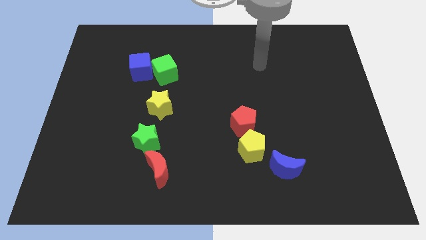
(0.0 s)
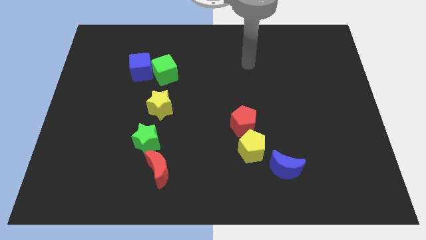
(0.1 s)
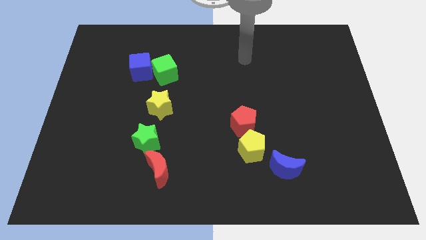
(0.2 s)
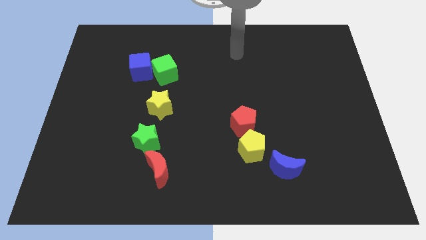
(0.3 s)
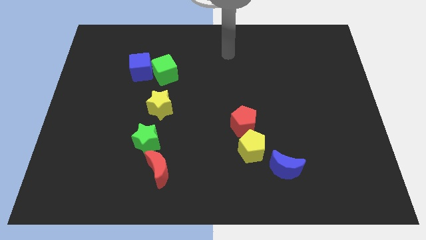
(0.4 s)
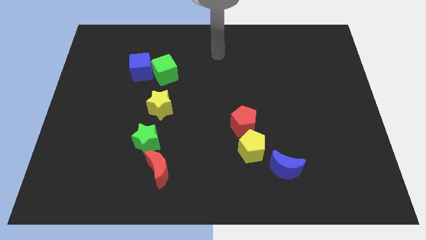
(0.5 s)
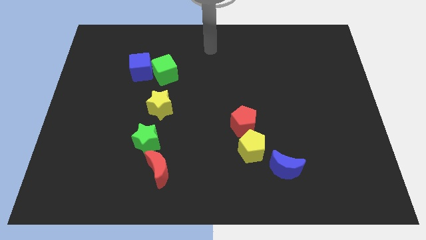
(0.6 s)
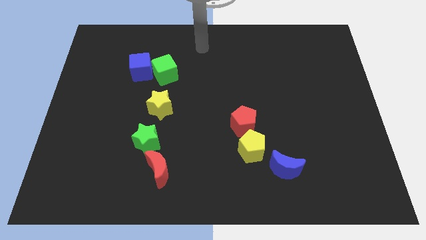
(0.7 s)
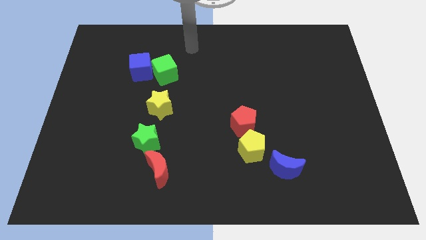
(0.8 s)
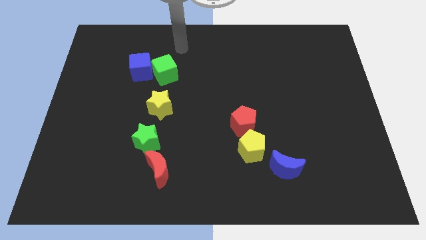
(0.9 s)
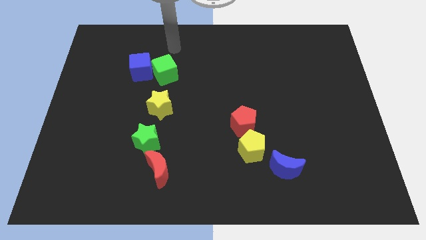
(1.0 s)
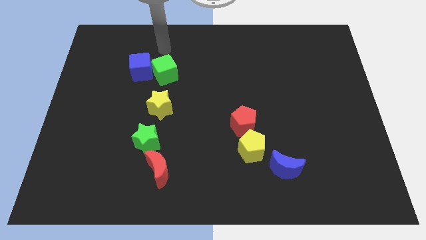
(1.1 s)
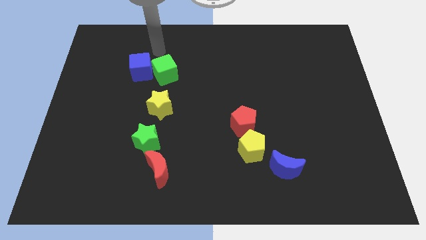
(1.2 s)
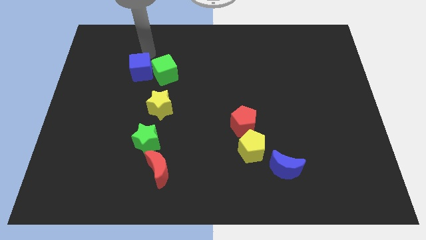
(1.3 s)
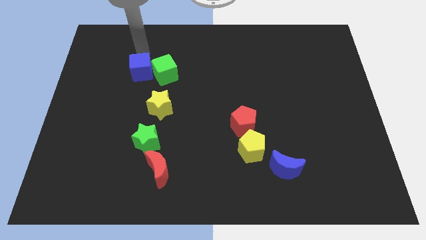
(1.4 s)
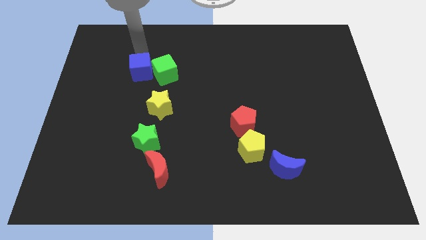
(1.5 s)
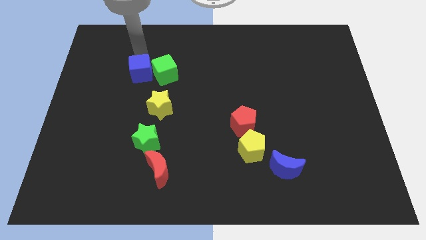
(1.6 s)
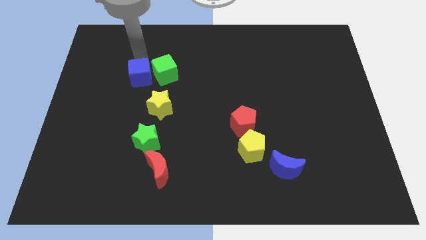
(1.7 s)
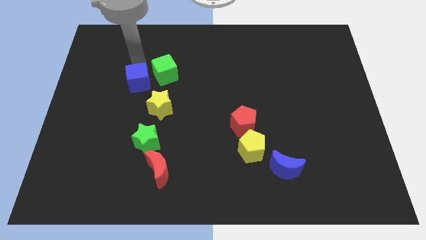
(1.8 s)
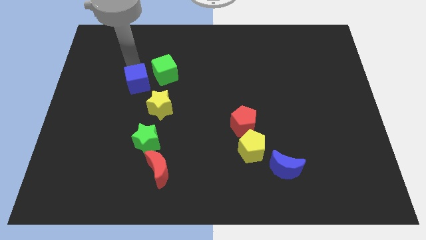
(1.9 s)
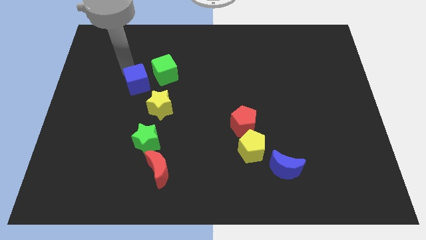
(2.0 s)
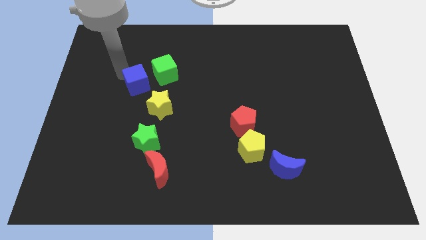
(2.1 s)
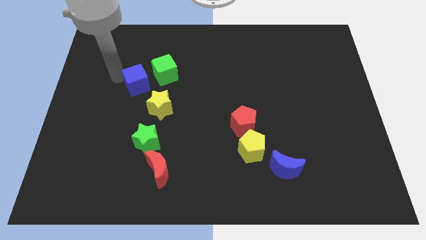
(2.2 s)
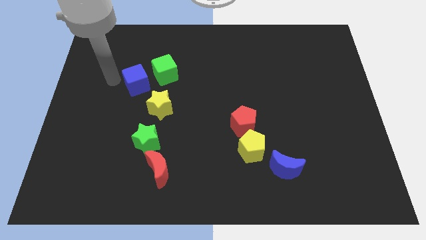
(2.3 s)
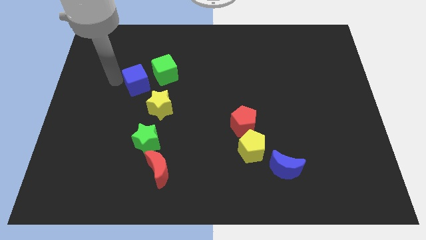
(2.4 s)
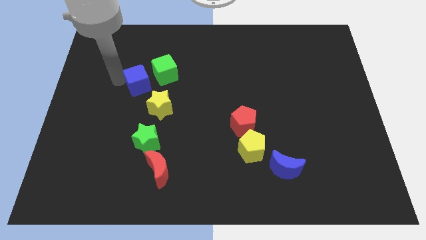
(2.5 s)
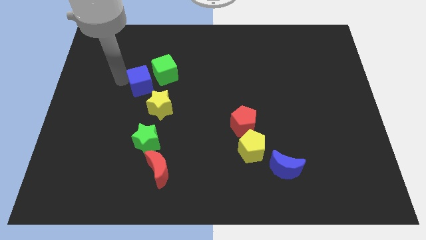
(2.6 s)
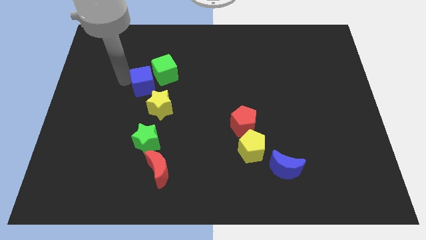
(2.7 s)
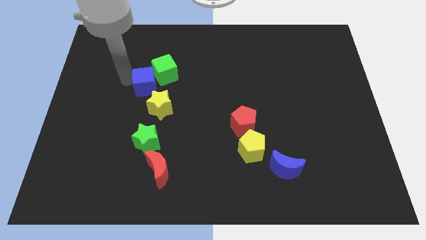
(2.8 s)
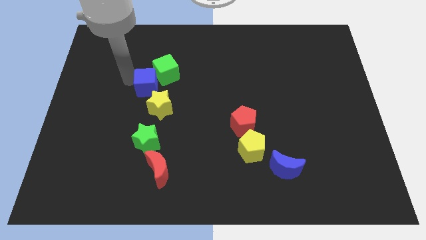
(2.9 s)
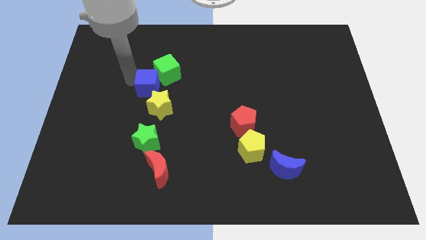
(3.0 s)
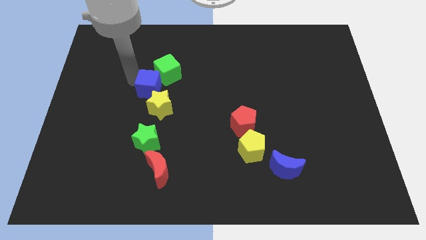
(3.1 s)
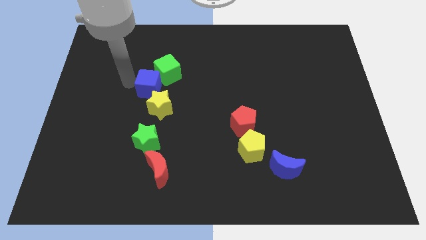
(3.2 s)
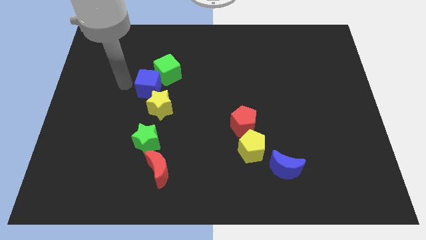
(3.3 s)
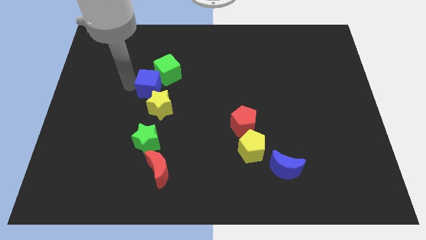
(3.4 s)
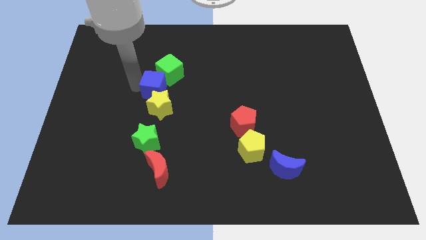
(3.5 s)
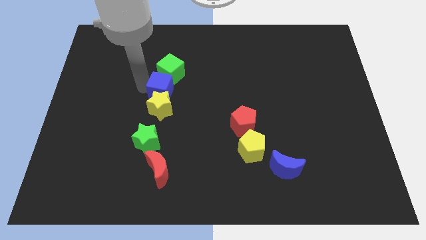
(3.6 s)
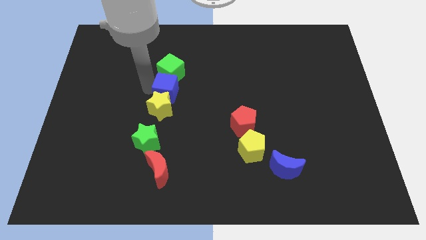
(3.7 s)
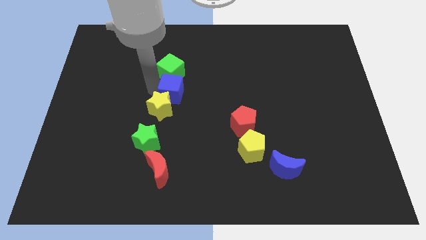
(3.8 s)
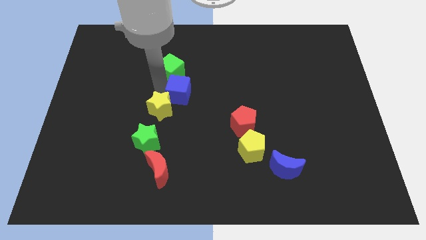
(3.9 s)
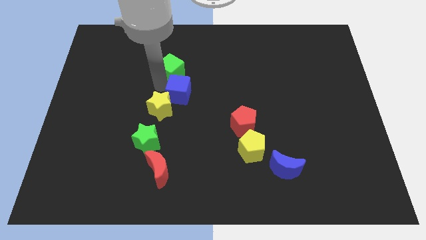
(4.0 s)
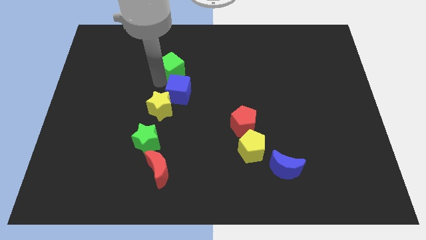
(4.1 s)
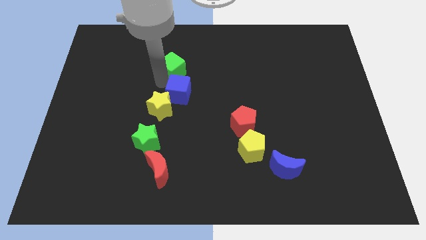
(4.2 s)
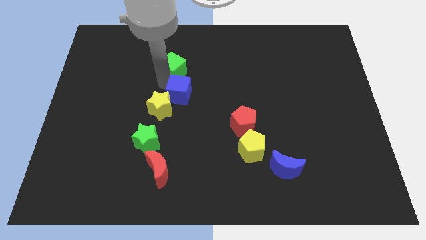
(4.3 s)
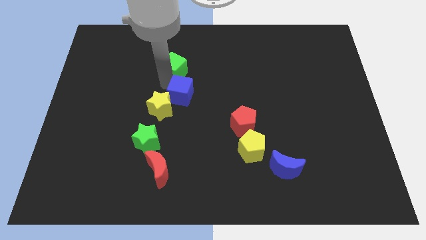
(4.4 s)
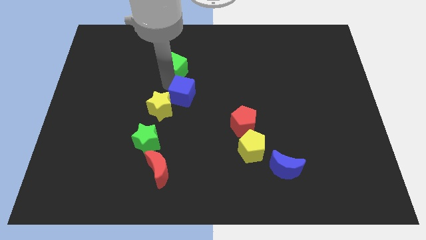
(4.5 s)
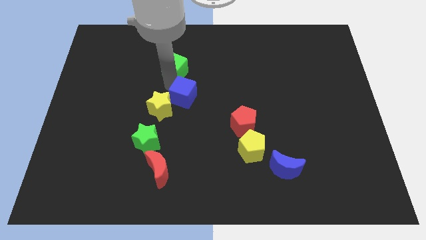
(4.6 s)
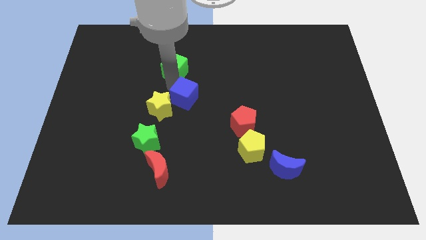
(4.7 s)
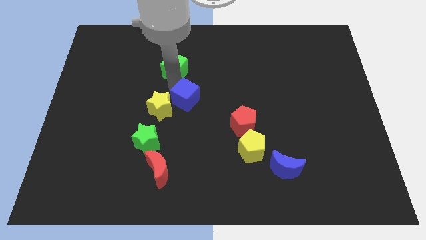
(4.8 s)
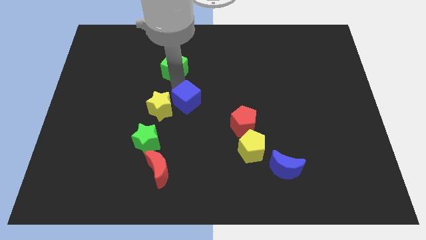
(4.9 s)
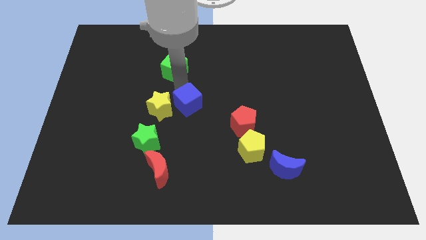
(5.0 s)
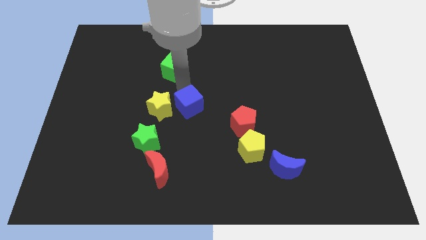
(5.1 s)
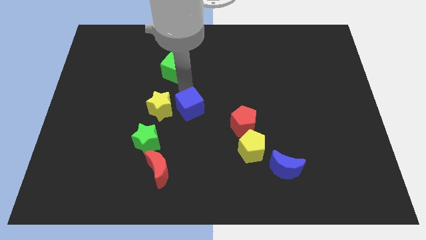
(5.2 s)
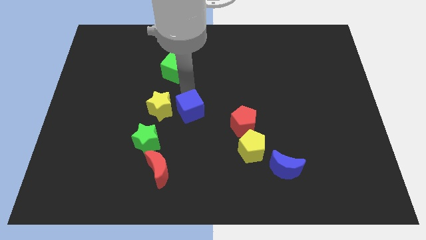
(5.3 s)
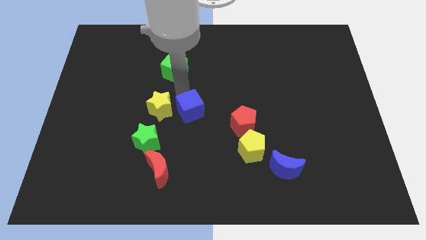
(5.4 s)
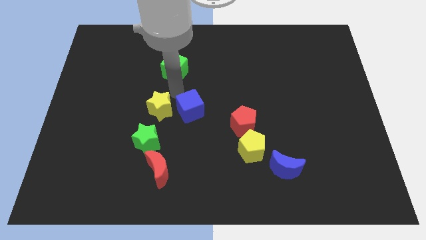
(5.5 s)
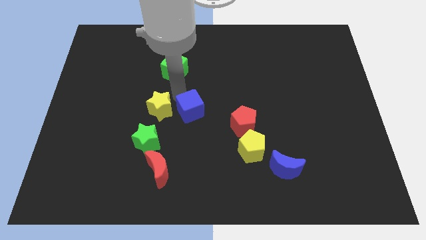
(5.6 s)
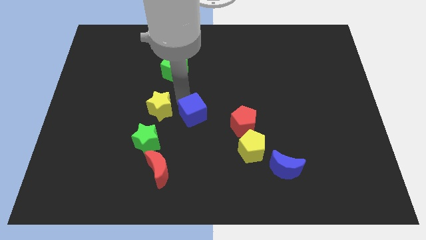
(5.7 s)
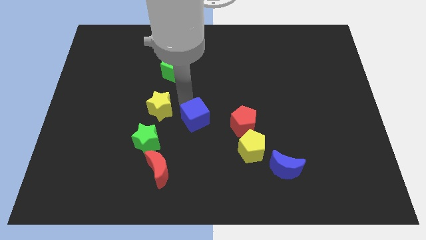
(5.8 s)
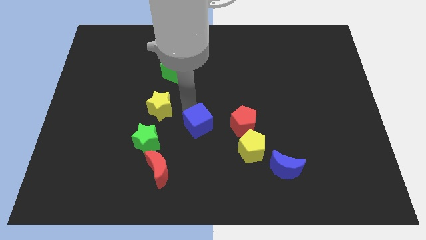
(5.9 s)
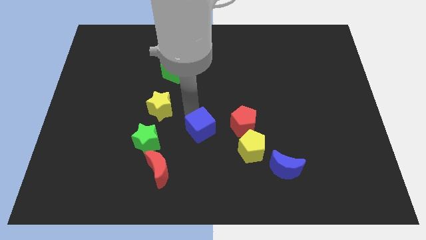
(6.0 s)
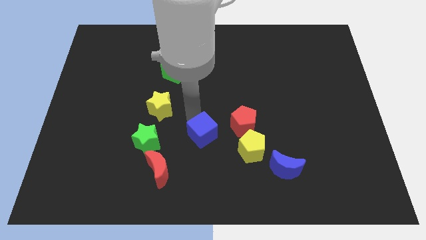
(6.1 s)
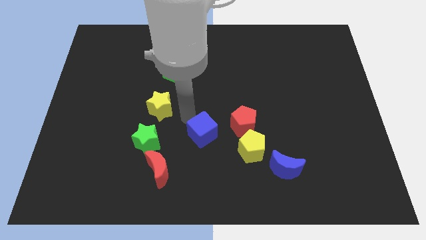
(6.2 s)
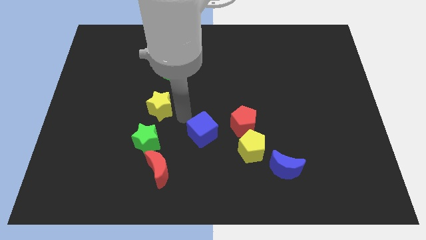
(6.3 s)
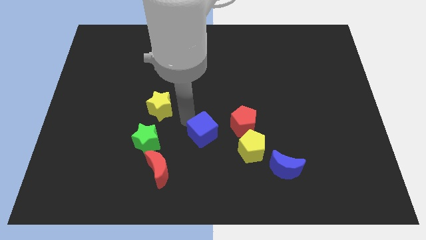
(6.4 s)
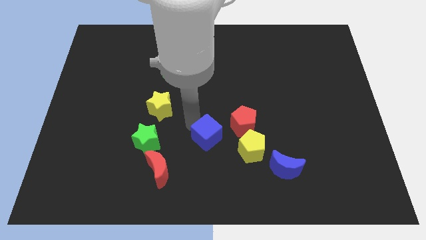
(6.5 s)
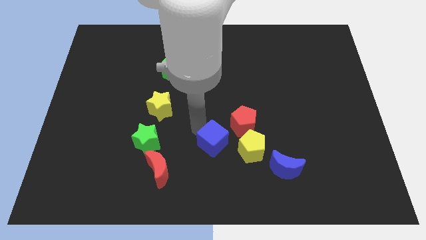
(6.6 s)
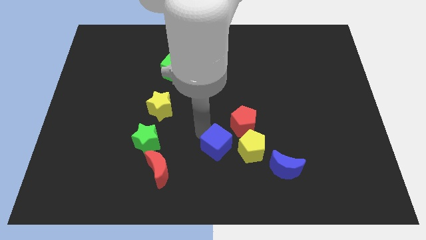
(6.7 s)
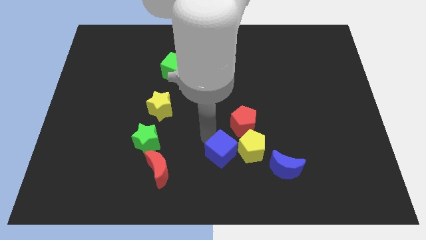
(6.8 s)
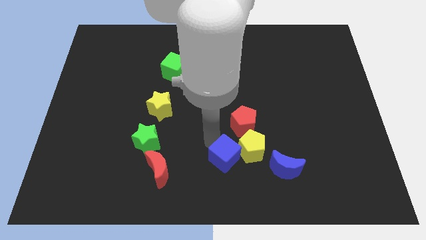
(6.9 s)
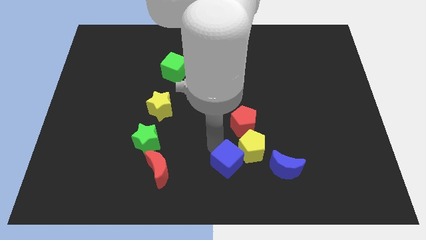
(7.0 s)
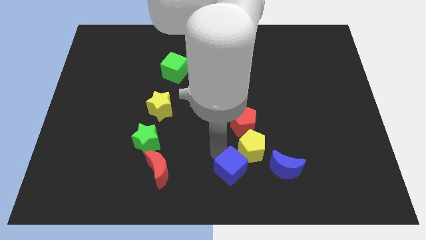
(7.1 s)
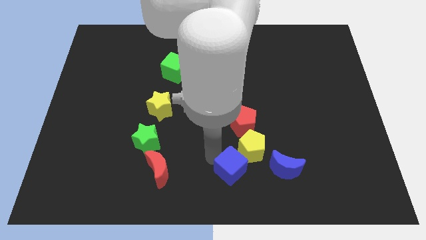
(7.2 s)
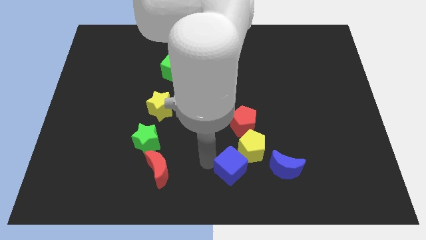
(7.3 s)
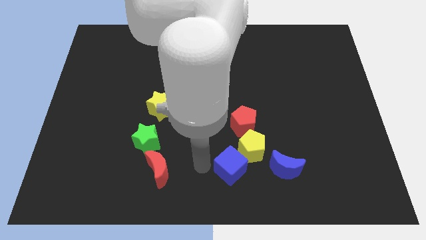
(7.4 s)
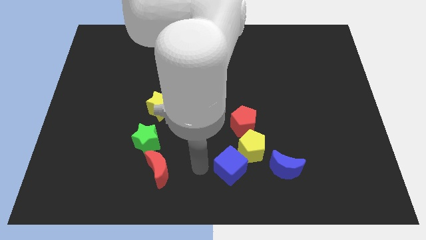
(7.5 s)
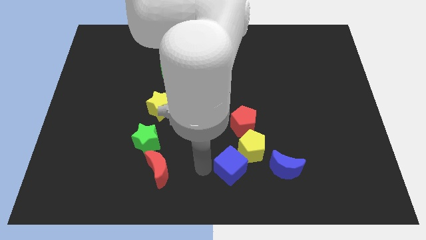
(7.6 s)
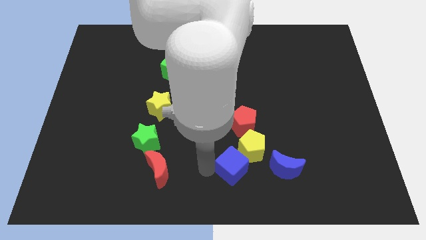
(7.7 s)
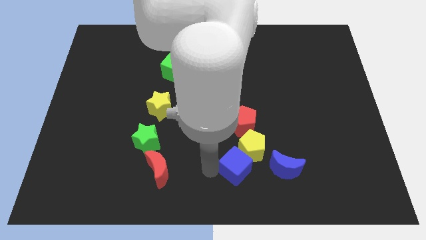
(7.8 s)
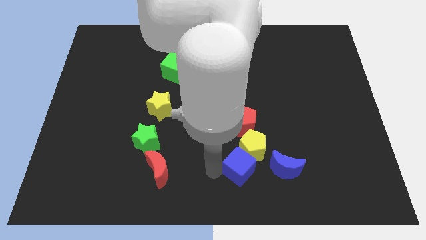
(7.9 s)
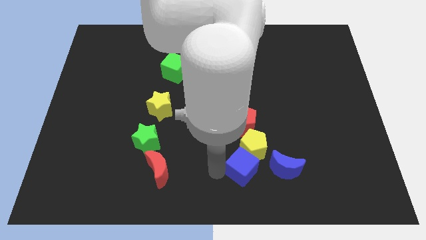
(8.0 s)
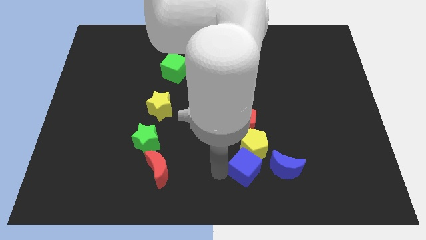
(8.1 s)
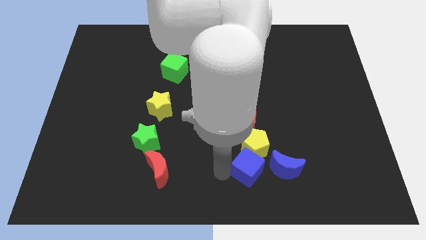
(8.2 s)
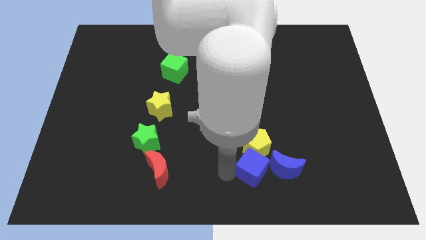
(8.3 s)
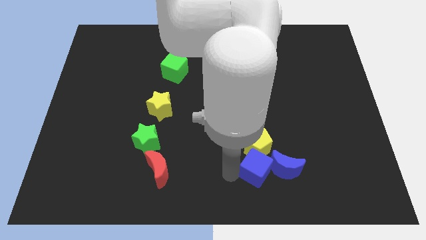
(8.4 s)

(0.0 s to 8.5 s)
move the blue cube towards the blue moon
